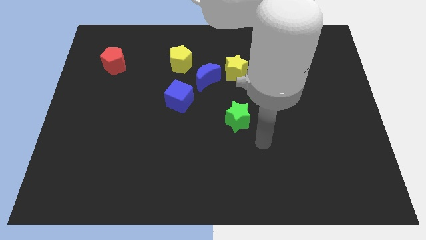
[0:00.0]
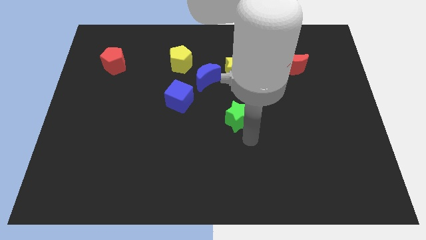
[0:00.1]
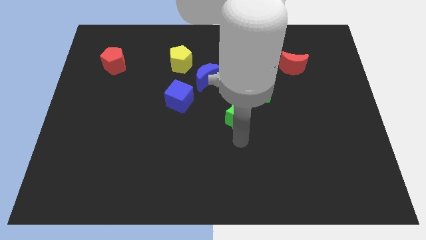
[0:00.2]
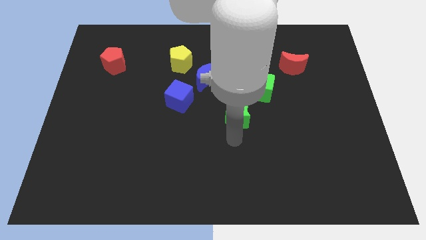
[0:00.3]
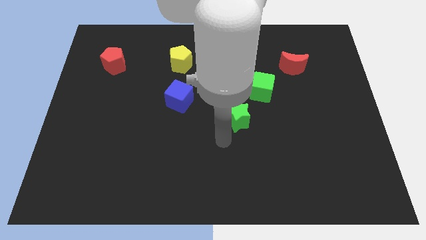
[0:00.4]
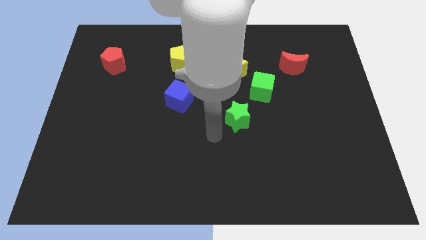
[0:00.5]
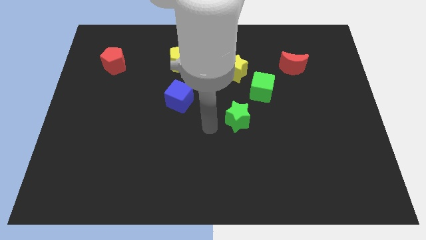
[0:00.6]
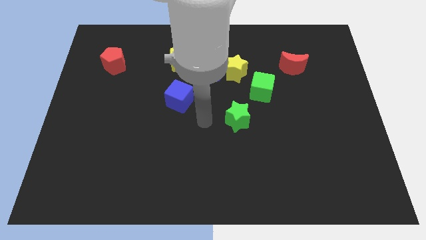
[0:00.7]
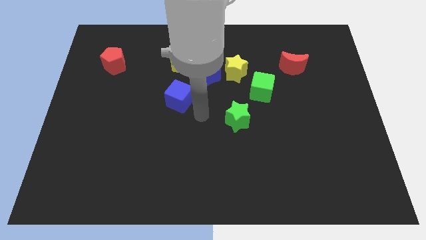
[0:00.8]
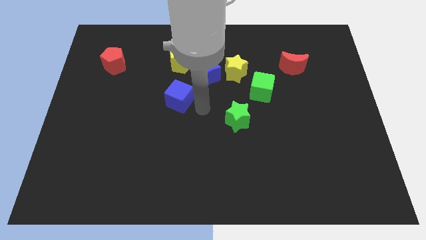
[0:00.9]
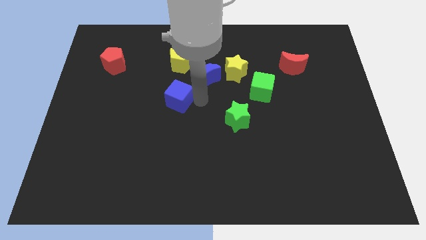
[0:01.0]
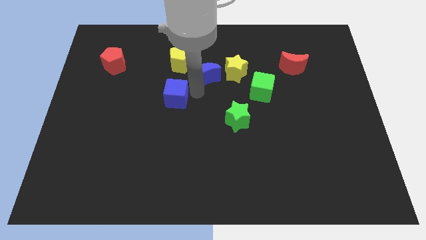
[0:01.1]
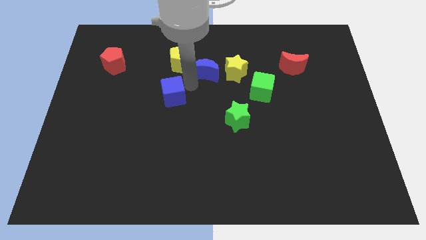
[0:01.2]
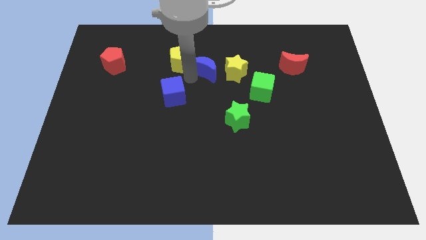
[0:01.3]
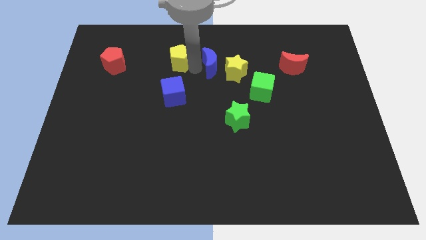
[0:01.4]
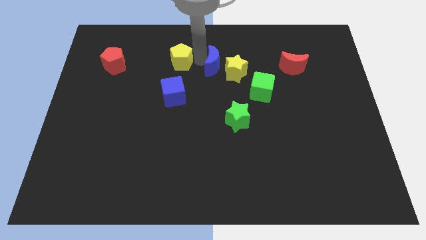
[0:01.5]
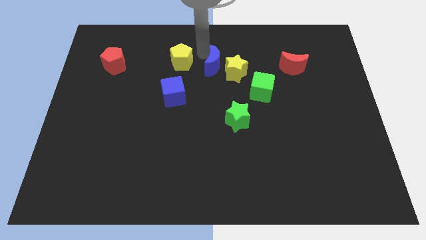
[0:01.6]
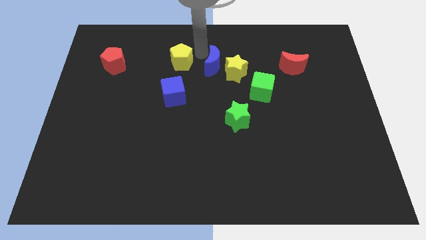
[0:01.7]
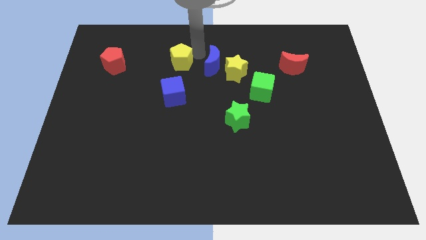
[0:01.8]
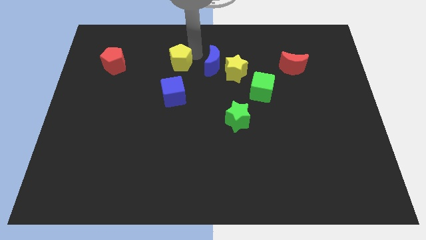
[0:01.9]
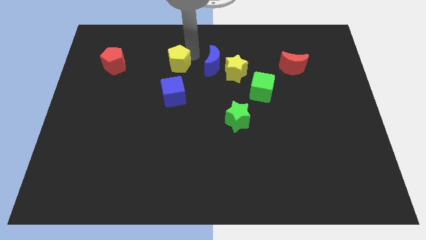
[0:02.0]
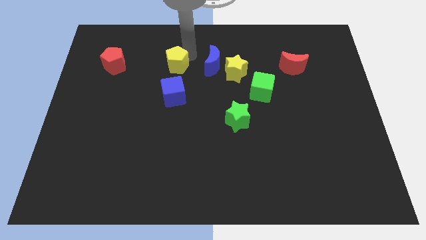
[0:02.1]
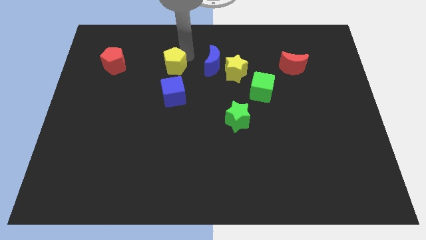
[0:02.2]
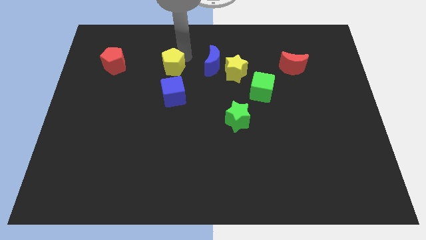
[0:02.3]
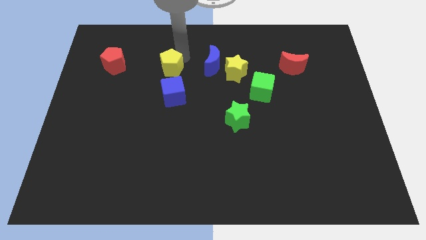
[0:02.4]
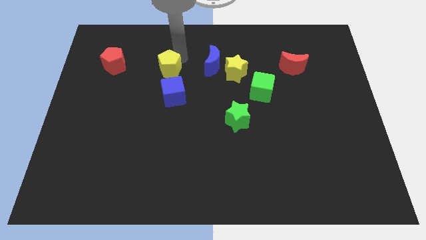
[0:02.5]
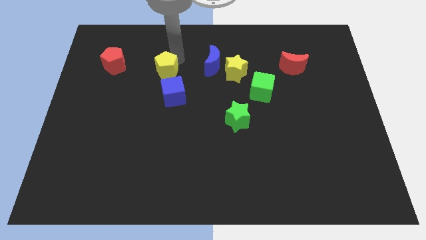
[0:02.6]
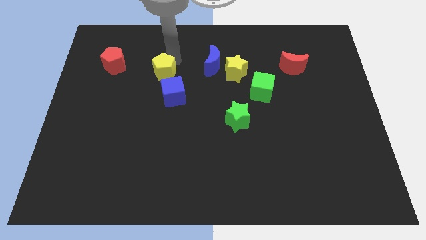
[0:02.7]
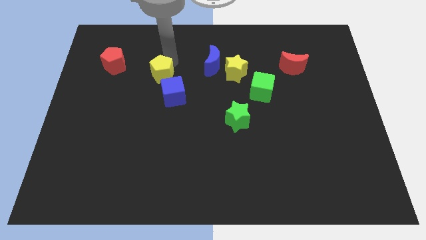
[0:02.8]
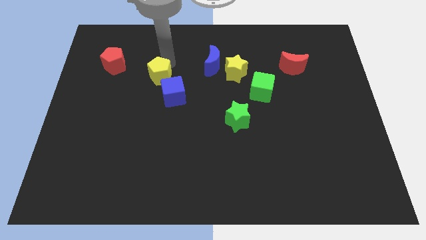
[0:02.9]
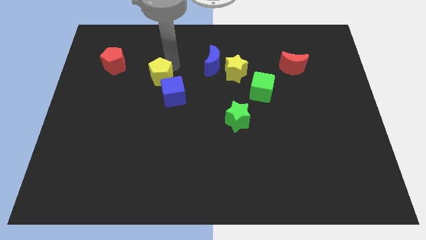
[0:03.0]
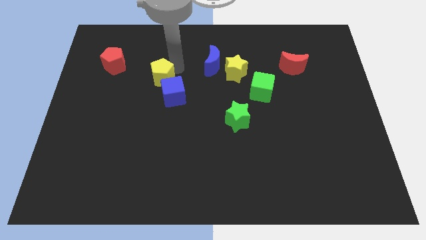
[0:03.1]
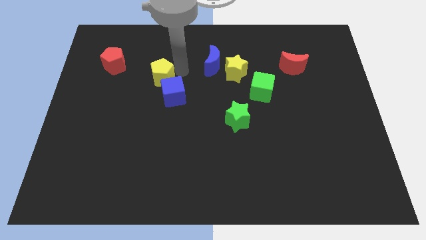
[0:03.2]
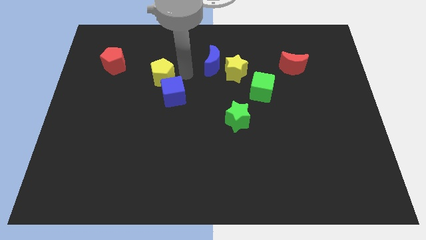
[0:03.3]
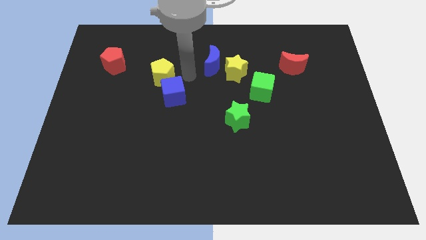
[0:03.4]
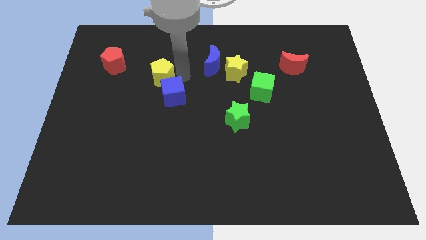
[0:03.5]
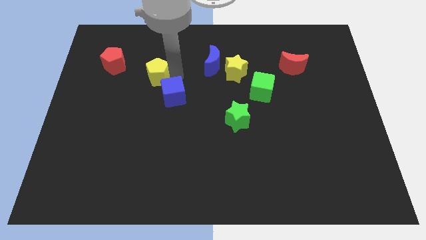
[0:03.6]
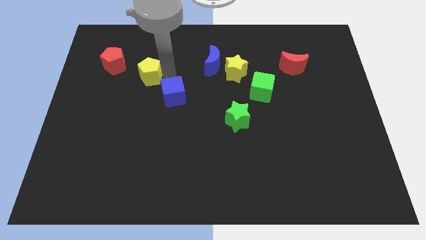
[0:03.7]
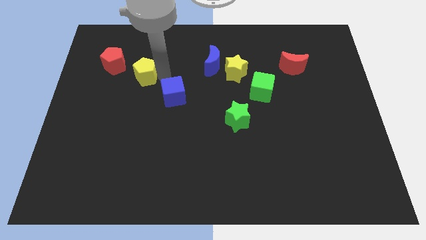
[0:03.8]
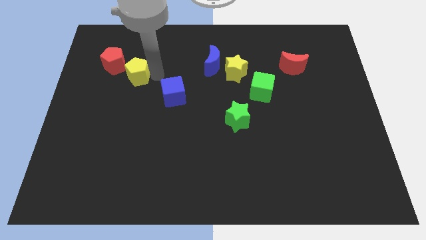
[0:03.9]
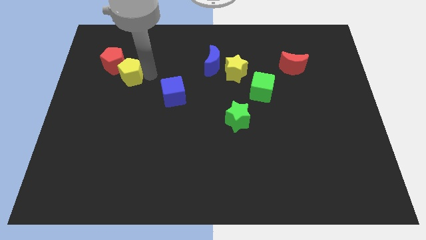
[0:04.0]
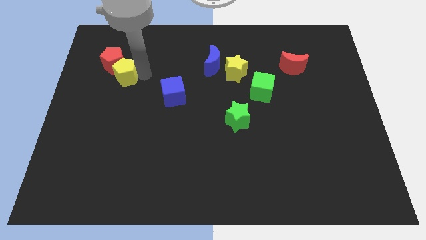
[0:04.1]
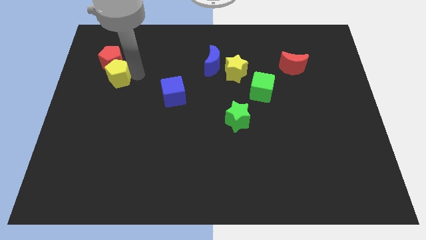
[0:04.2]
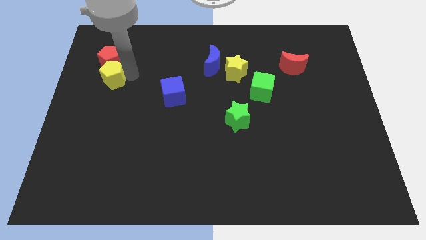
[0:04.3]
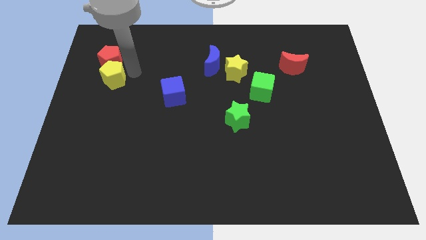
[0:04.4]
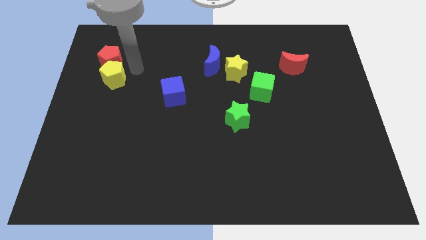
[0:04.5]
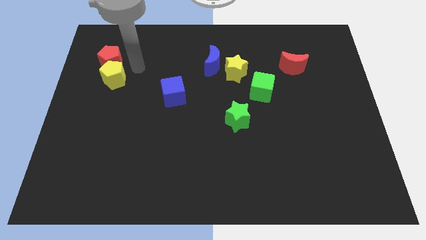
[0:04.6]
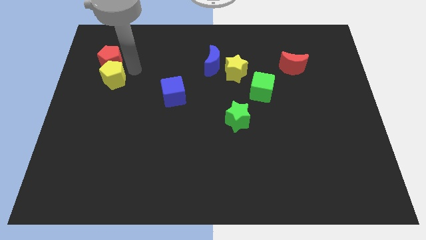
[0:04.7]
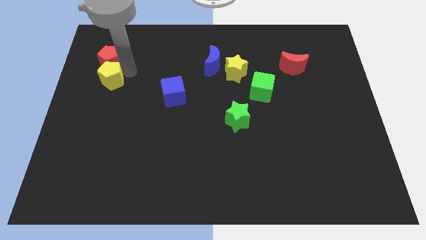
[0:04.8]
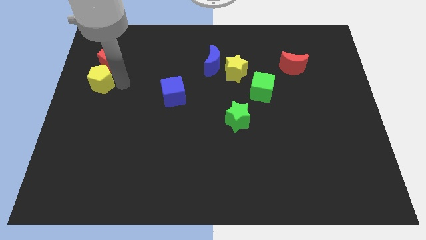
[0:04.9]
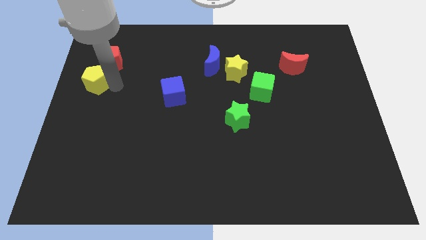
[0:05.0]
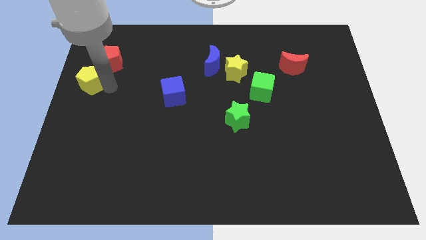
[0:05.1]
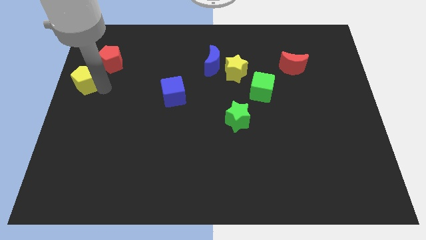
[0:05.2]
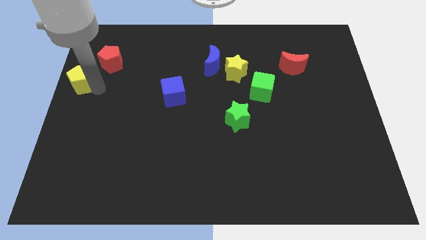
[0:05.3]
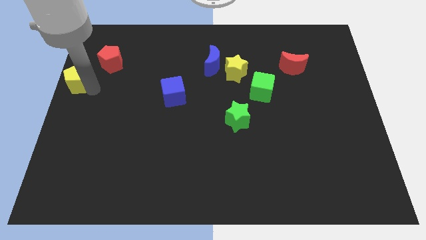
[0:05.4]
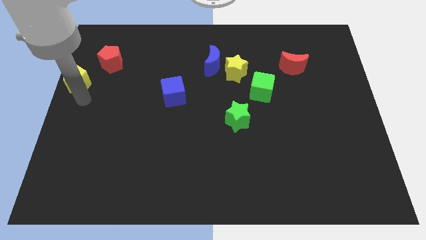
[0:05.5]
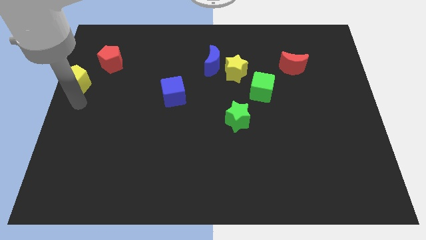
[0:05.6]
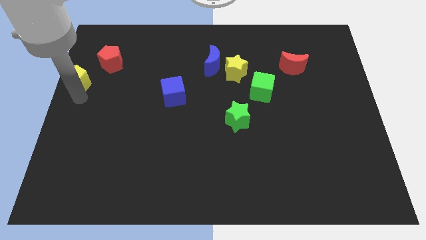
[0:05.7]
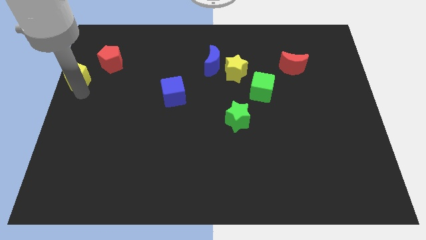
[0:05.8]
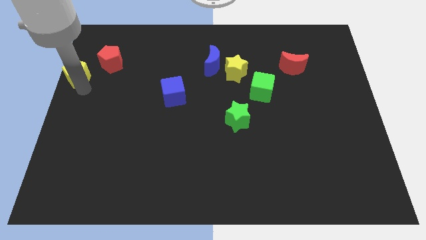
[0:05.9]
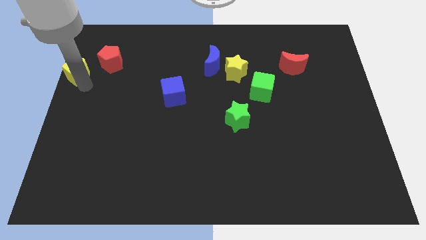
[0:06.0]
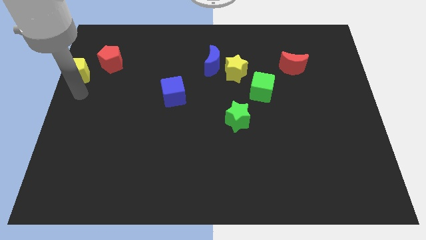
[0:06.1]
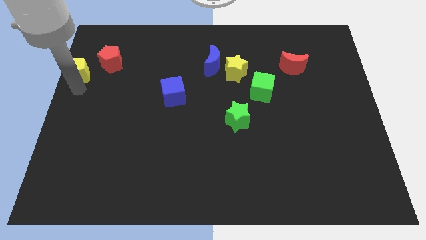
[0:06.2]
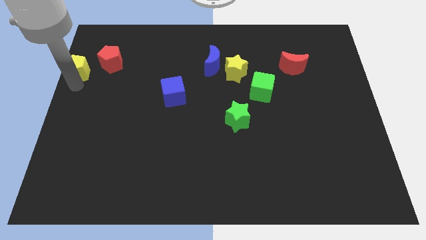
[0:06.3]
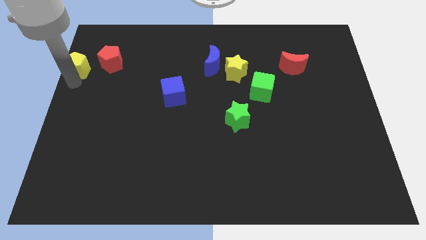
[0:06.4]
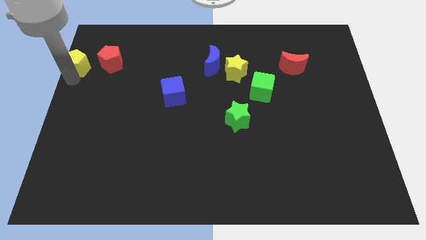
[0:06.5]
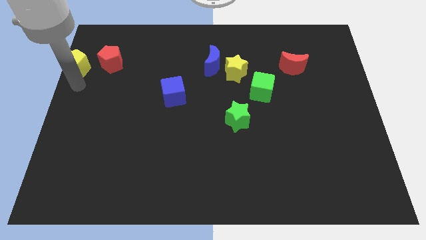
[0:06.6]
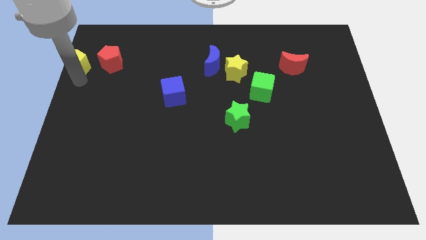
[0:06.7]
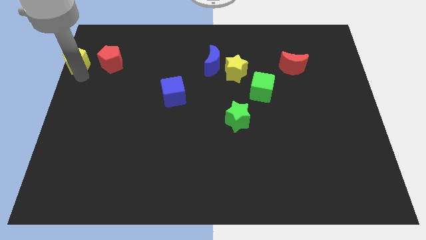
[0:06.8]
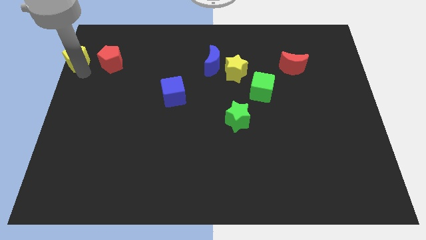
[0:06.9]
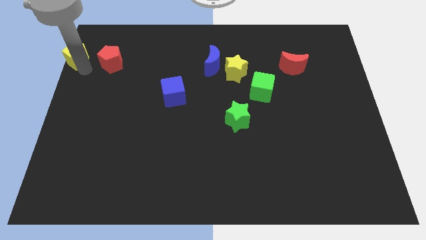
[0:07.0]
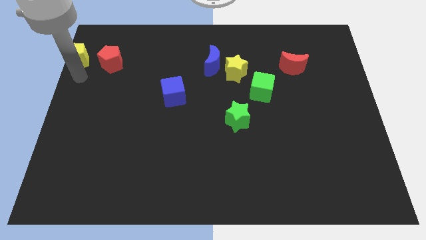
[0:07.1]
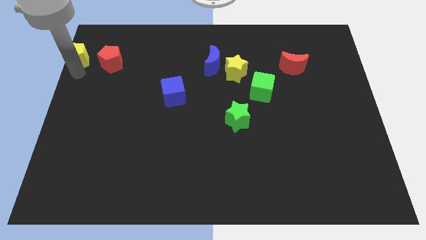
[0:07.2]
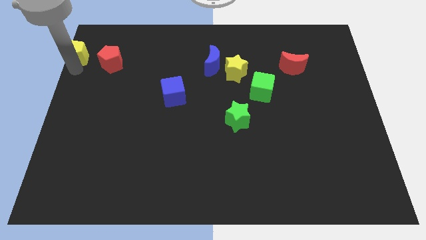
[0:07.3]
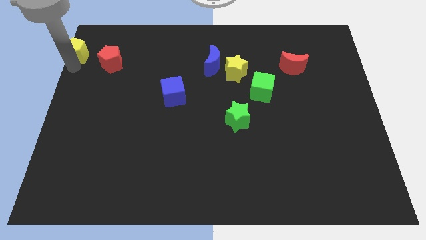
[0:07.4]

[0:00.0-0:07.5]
put the yellow pentagon to the upper left corner
